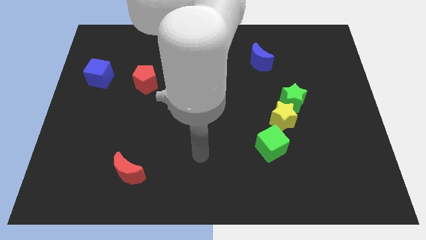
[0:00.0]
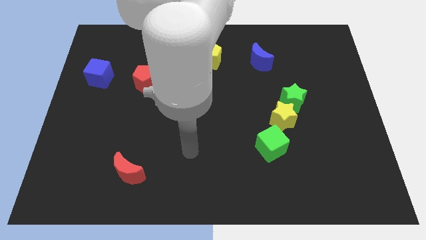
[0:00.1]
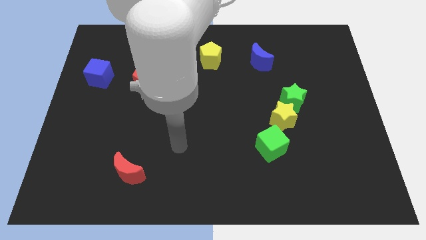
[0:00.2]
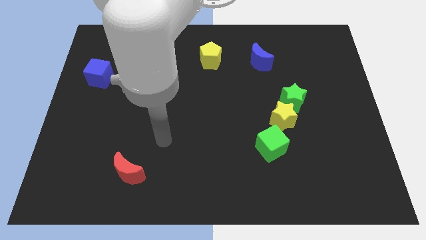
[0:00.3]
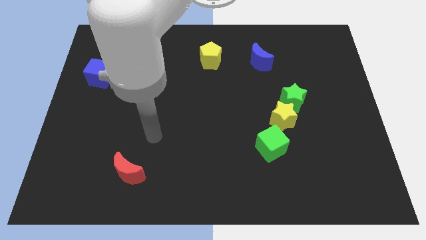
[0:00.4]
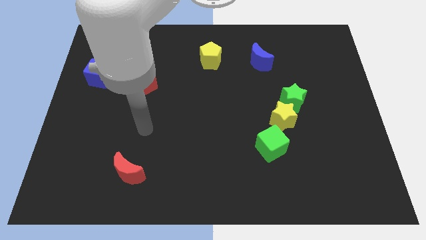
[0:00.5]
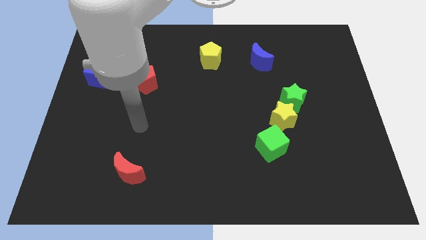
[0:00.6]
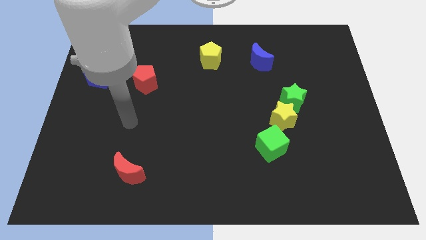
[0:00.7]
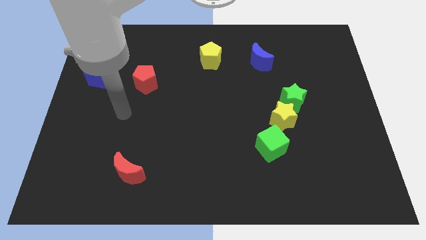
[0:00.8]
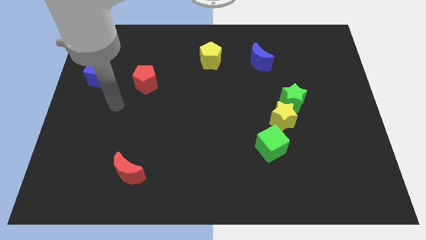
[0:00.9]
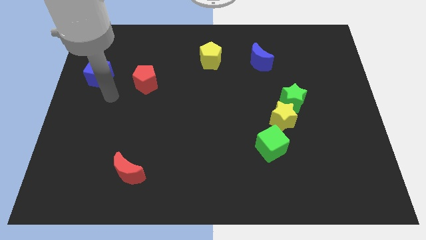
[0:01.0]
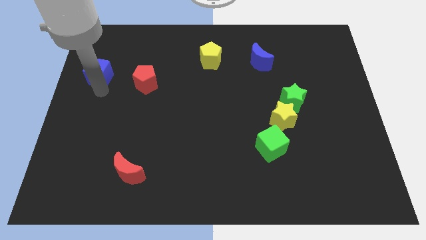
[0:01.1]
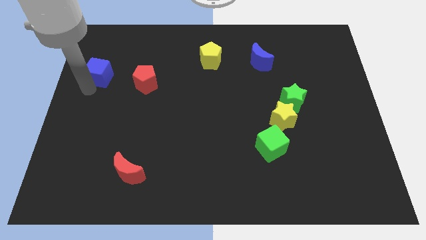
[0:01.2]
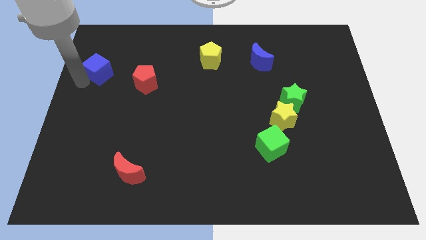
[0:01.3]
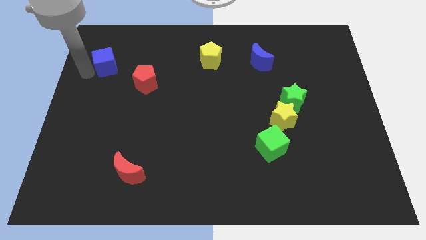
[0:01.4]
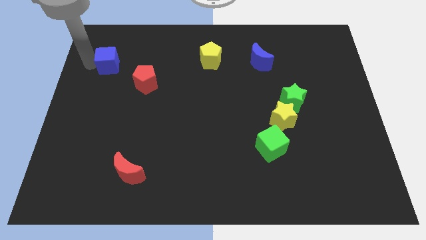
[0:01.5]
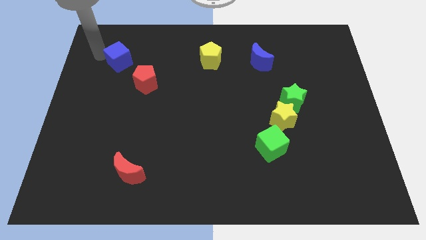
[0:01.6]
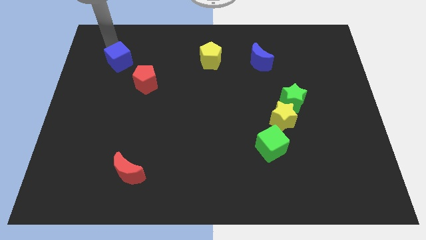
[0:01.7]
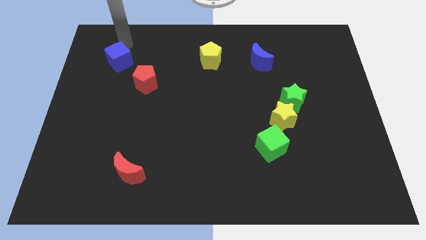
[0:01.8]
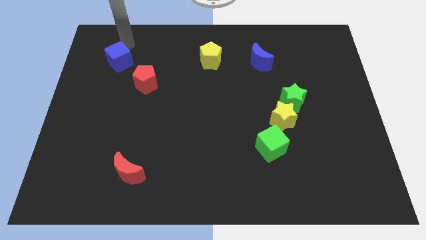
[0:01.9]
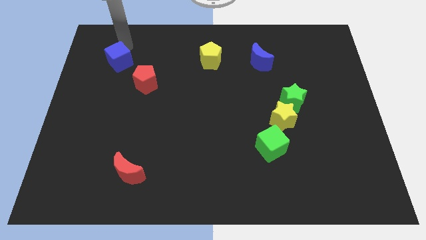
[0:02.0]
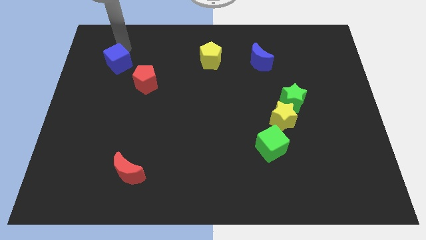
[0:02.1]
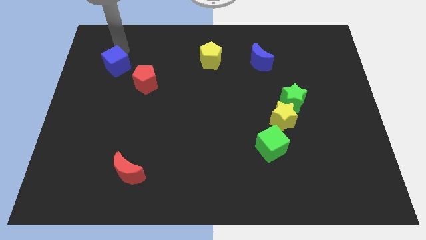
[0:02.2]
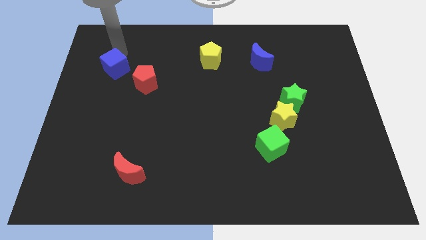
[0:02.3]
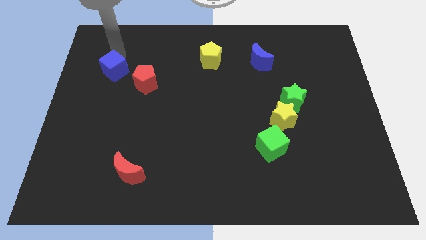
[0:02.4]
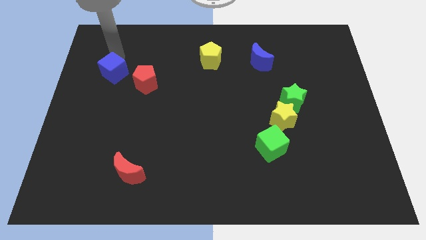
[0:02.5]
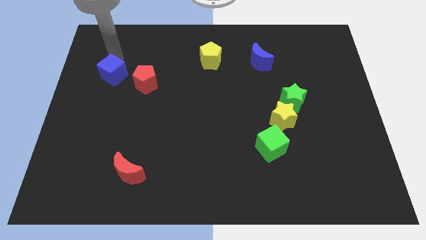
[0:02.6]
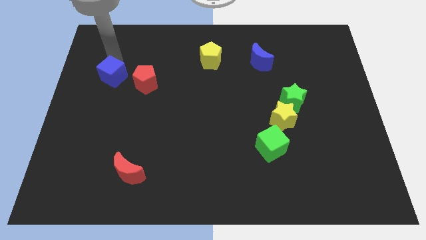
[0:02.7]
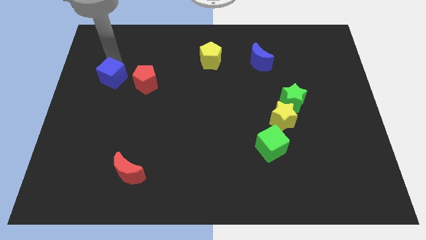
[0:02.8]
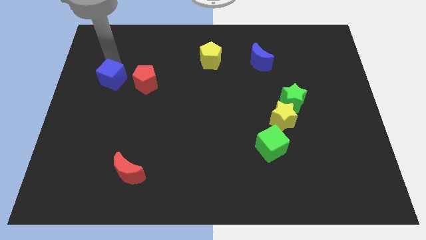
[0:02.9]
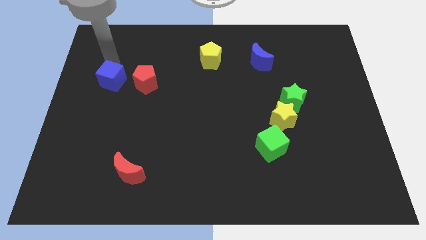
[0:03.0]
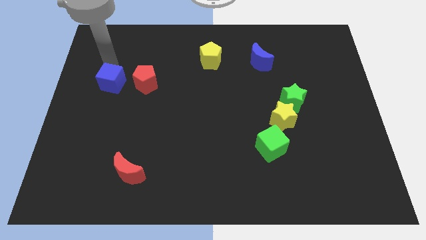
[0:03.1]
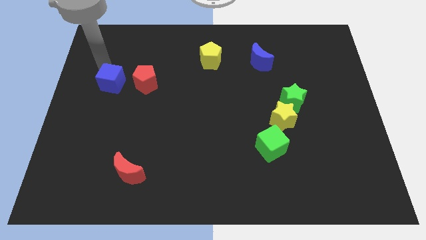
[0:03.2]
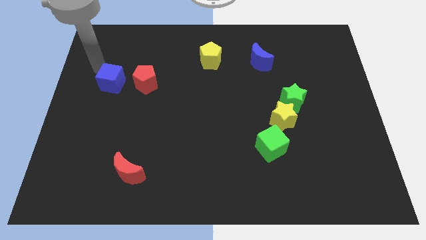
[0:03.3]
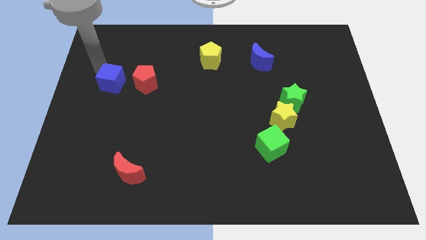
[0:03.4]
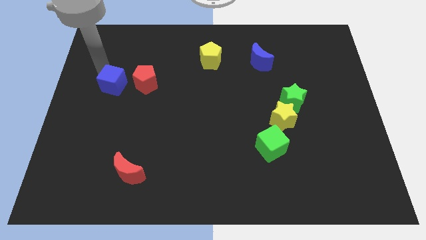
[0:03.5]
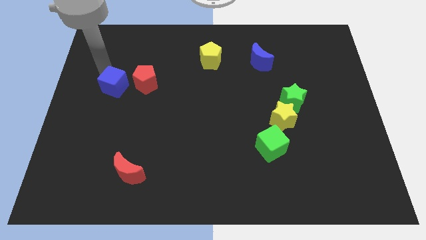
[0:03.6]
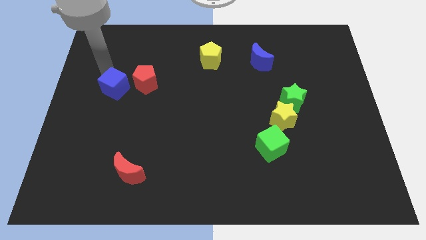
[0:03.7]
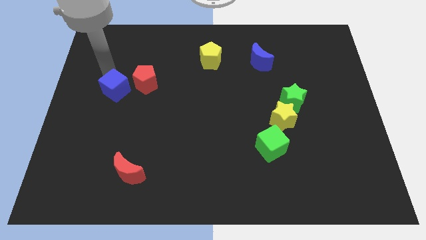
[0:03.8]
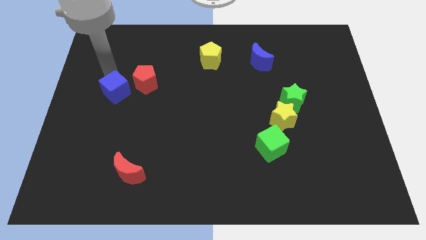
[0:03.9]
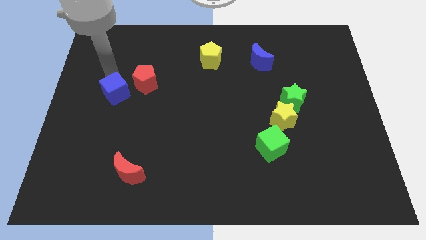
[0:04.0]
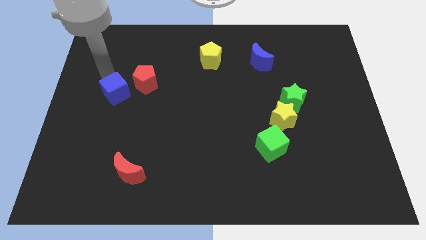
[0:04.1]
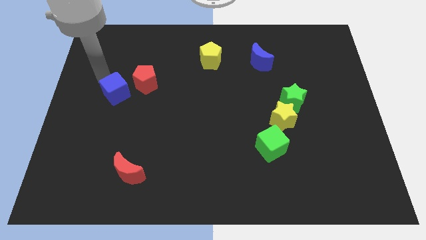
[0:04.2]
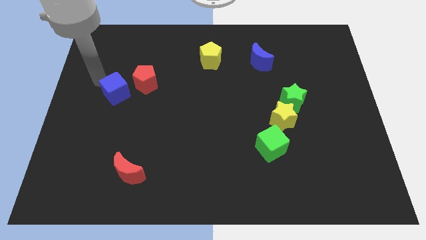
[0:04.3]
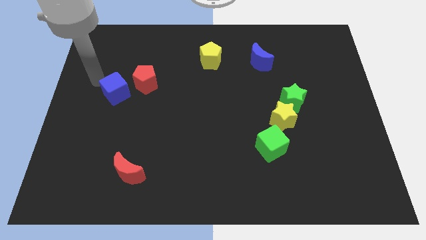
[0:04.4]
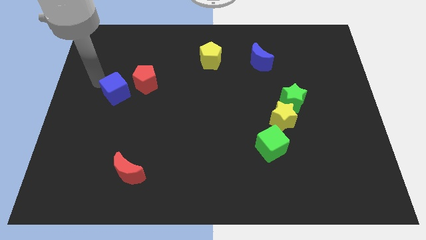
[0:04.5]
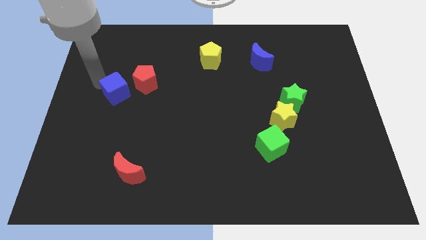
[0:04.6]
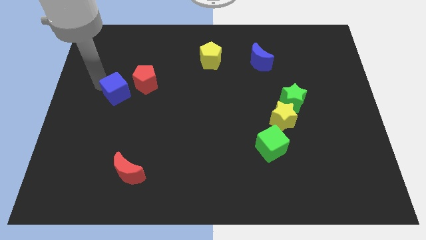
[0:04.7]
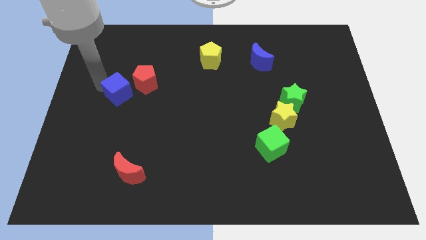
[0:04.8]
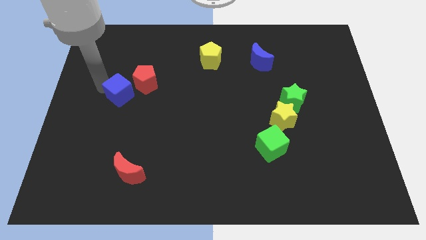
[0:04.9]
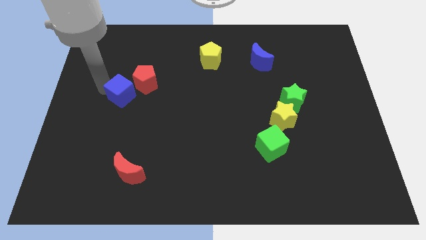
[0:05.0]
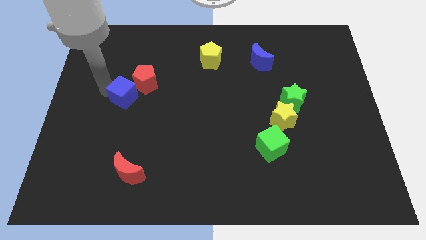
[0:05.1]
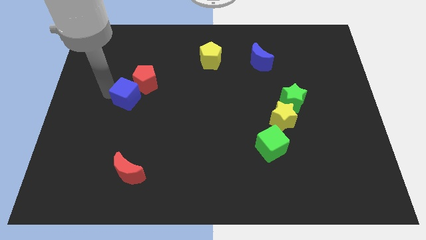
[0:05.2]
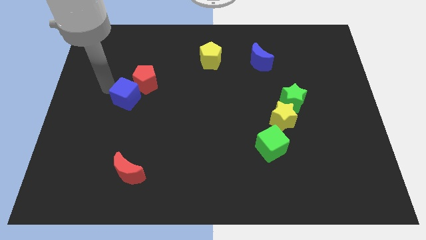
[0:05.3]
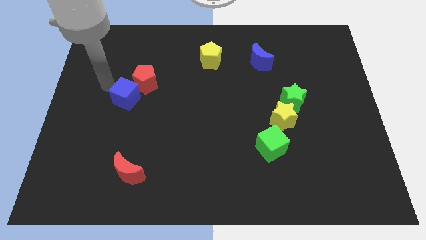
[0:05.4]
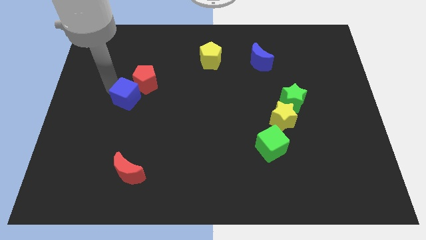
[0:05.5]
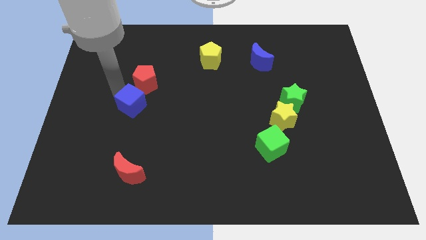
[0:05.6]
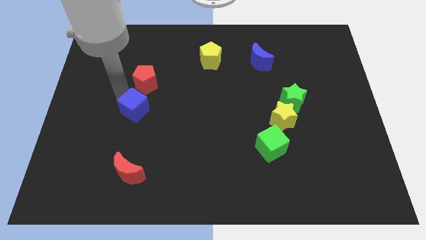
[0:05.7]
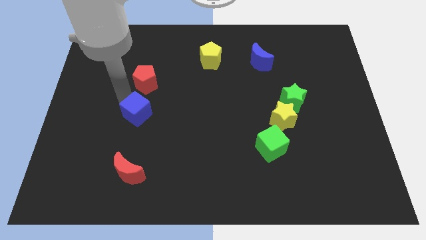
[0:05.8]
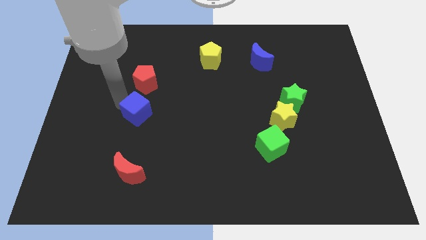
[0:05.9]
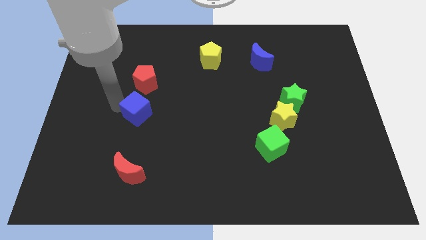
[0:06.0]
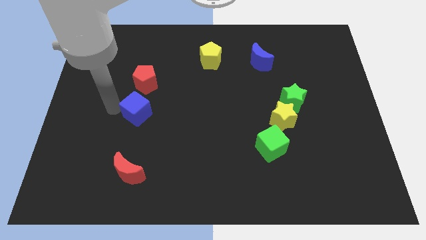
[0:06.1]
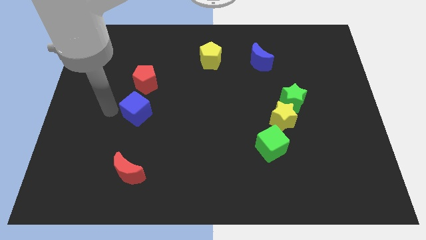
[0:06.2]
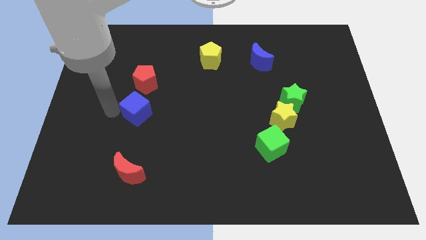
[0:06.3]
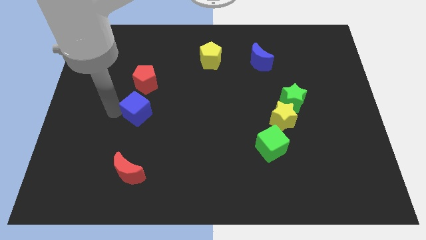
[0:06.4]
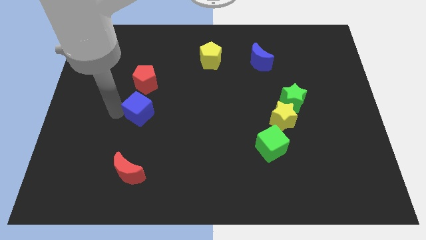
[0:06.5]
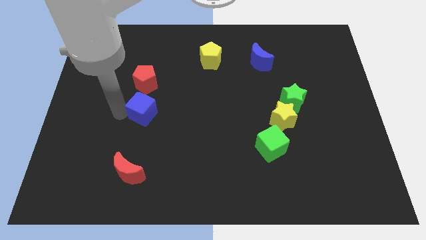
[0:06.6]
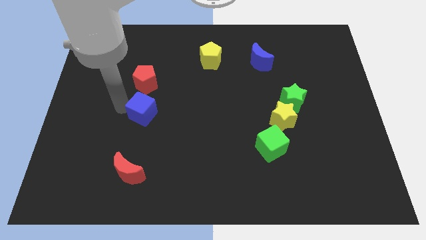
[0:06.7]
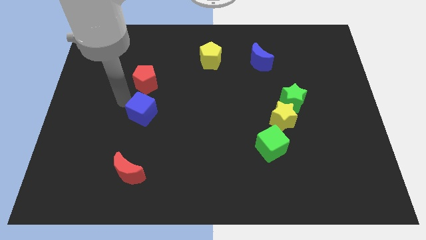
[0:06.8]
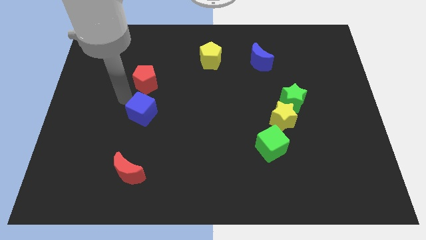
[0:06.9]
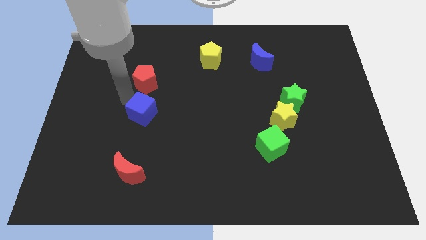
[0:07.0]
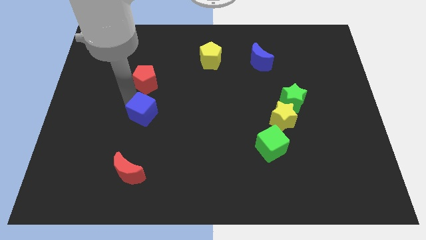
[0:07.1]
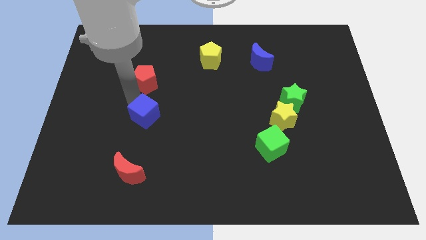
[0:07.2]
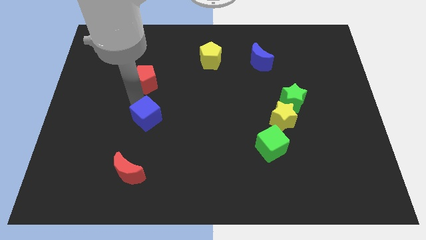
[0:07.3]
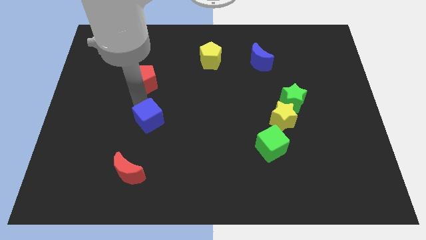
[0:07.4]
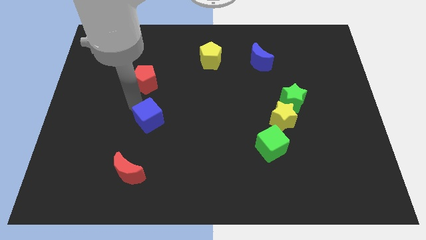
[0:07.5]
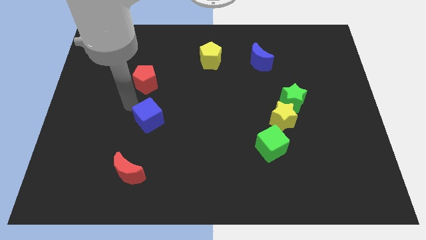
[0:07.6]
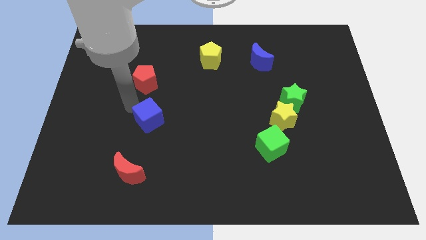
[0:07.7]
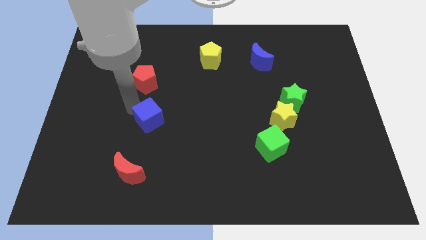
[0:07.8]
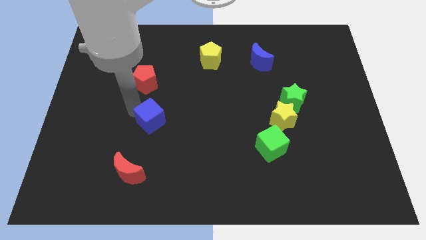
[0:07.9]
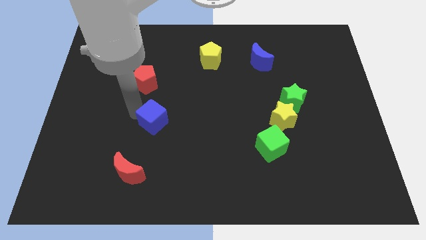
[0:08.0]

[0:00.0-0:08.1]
push the blue cube diagonally down and to the right
